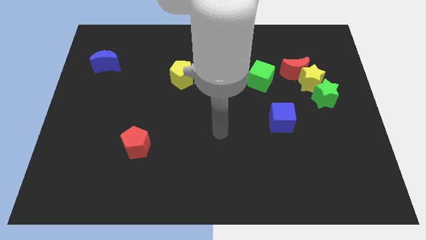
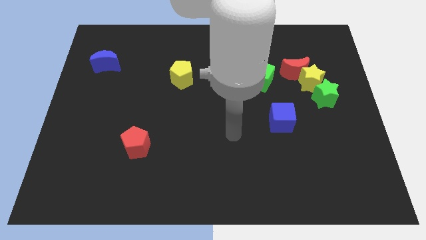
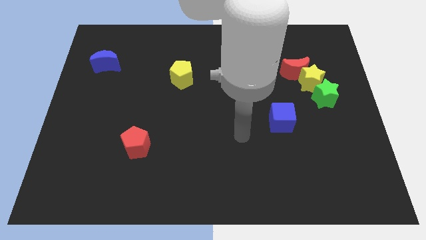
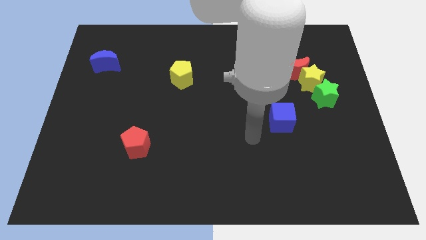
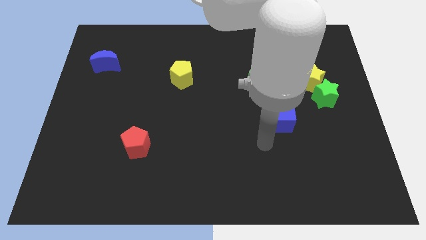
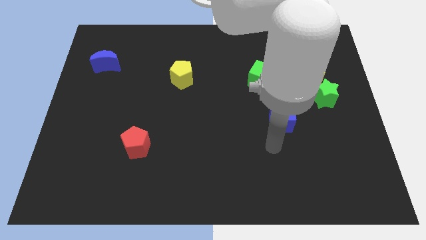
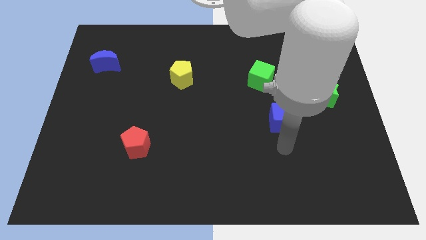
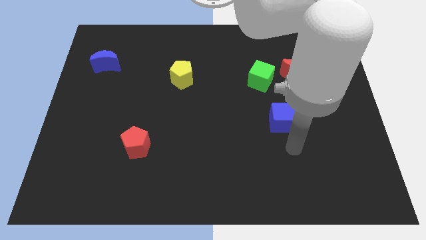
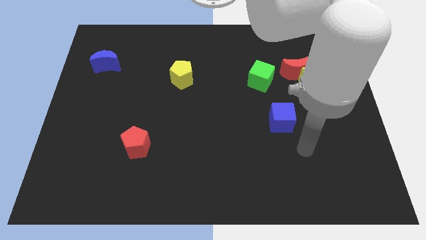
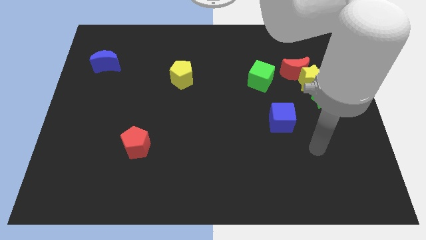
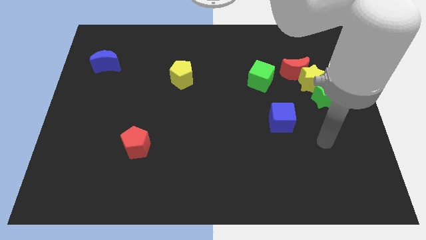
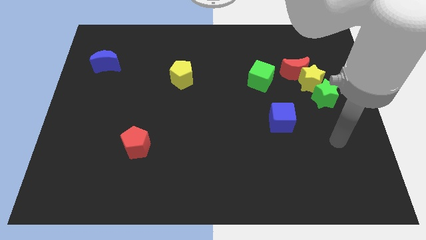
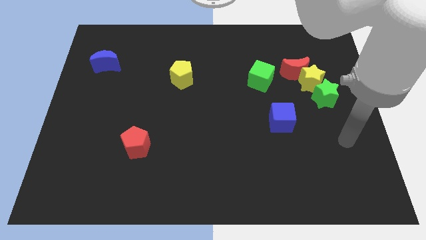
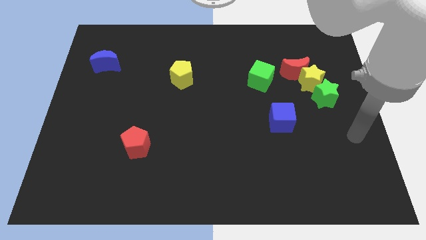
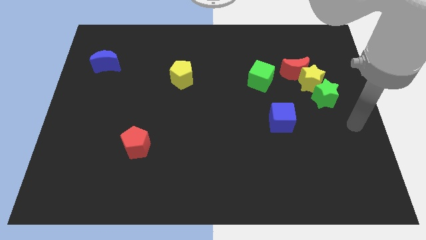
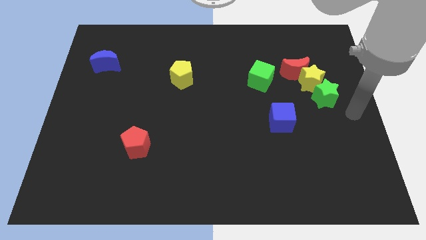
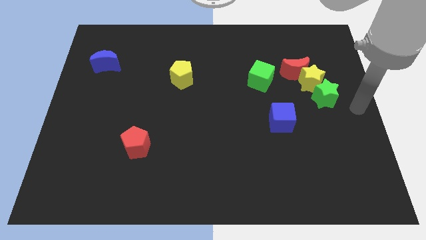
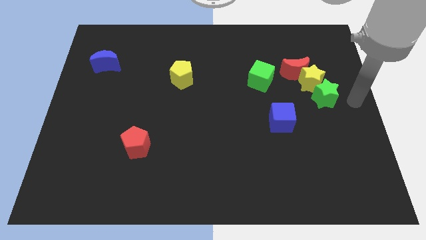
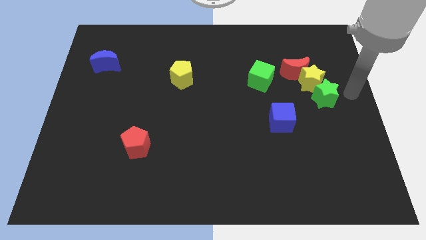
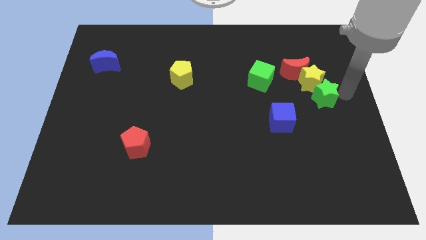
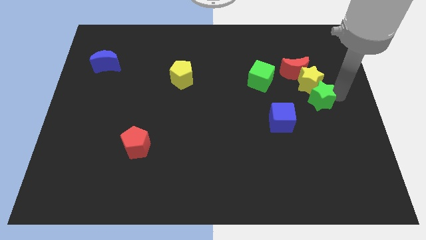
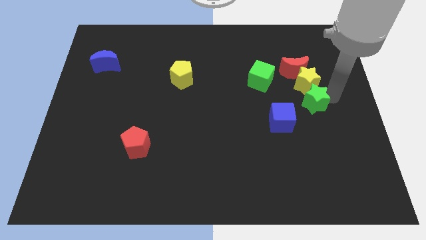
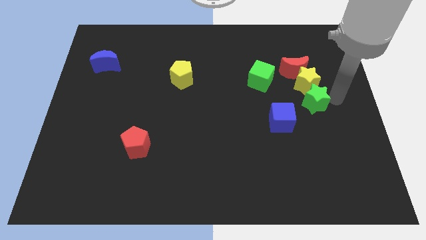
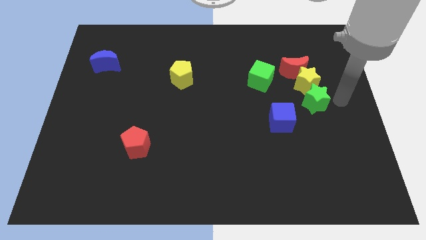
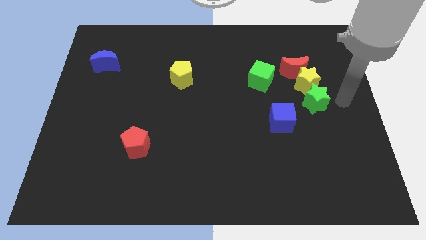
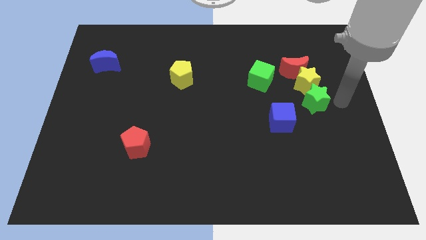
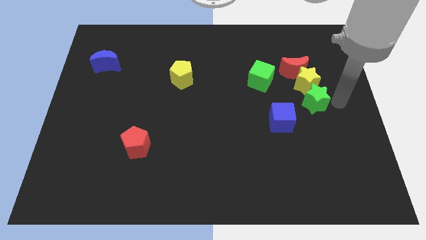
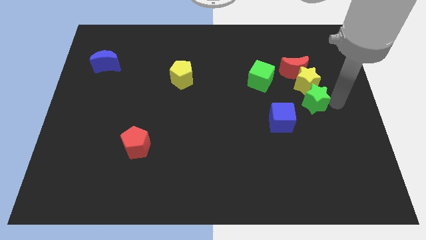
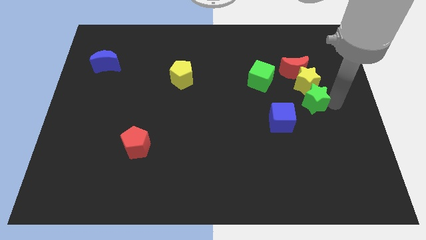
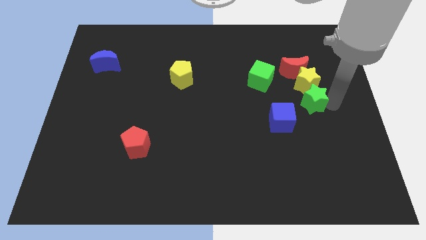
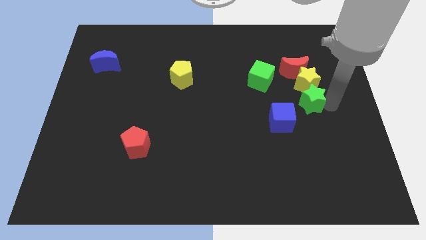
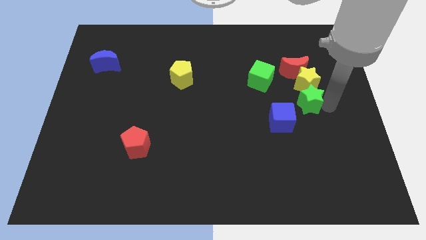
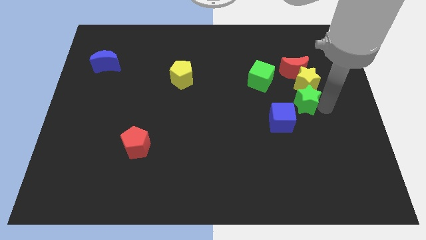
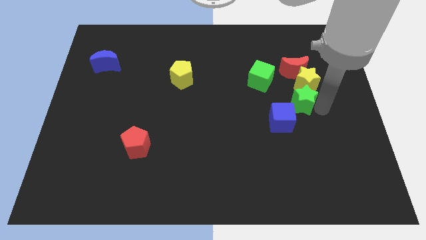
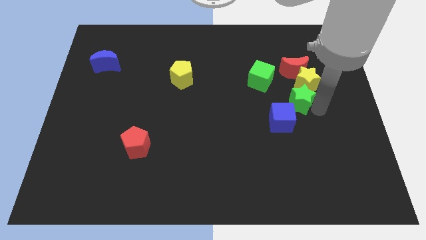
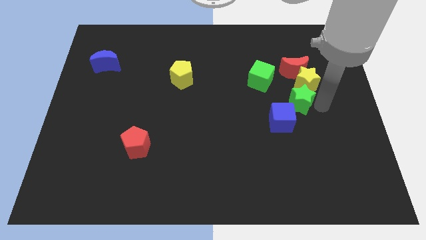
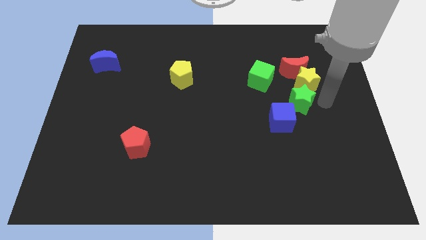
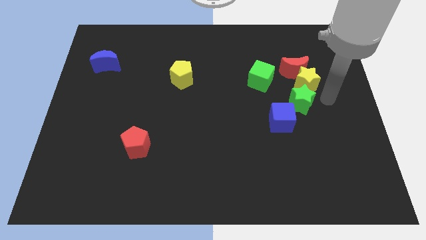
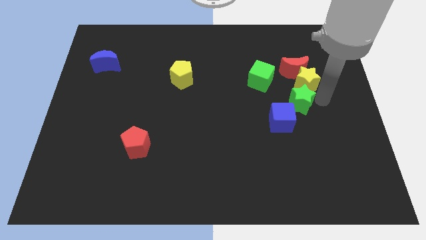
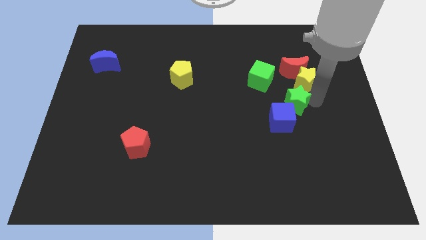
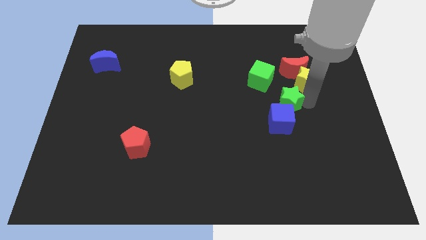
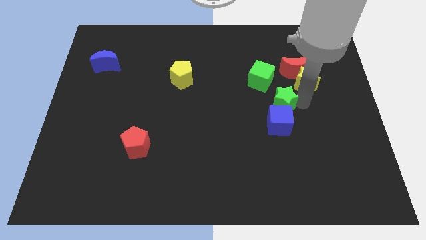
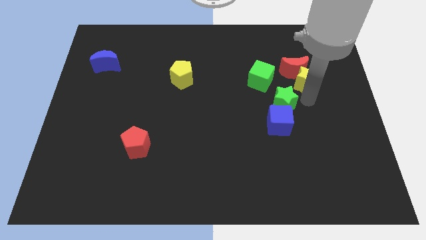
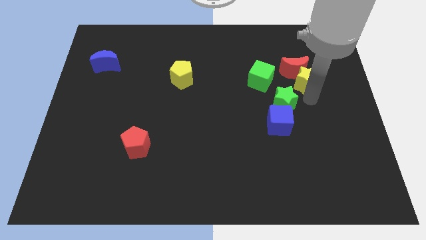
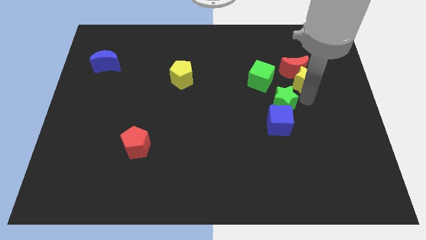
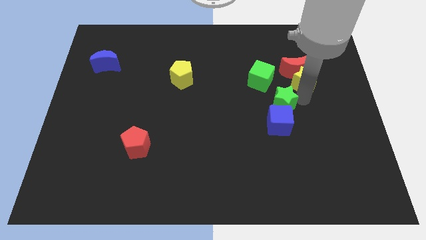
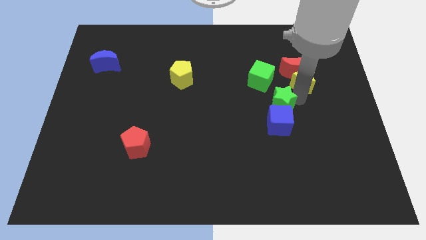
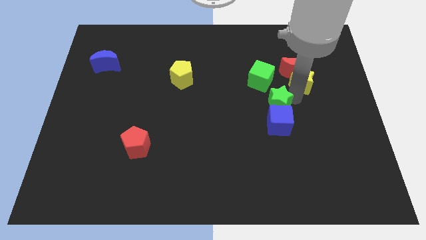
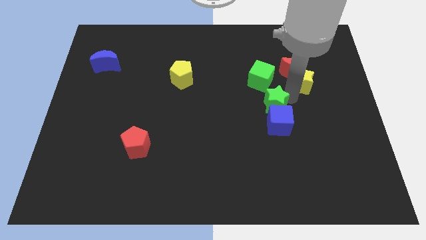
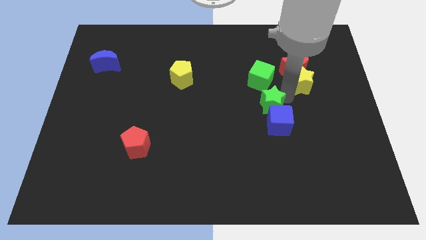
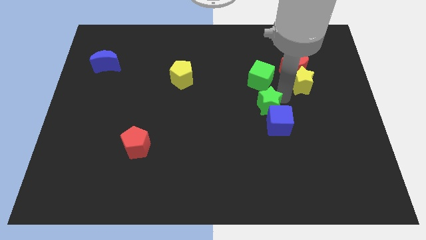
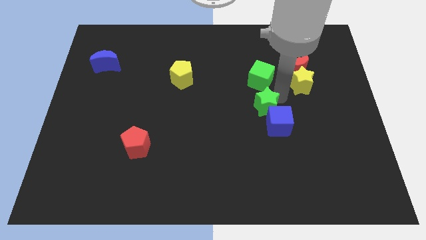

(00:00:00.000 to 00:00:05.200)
slide the green star to the center of the board
